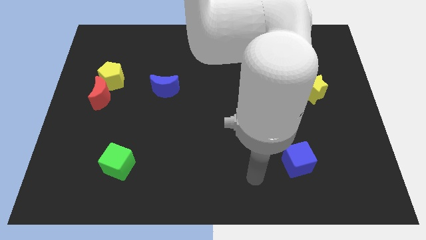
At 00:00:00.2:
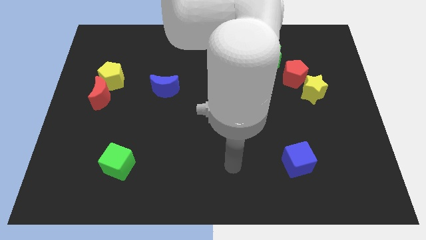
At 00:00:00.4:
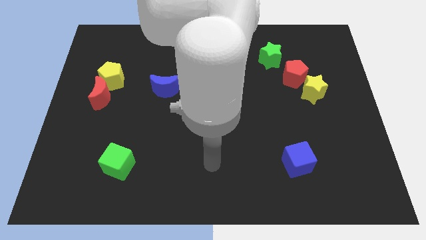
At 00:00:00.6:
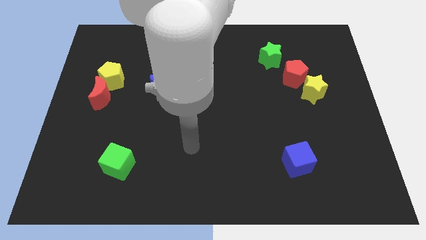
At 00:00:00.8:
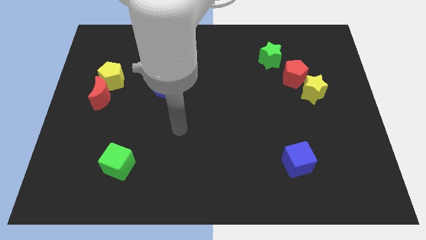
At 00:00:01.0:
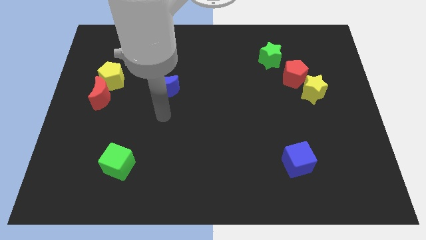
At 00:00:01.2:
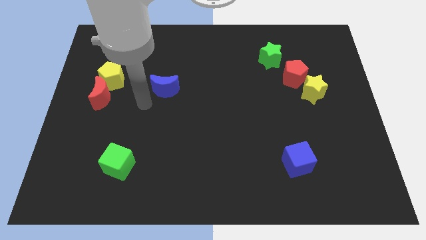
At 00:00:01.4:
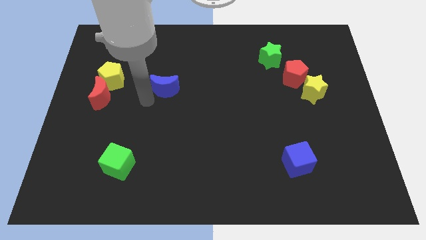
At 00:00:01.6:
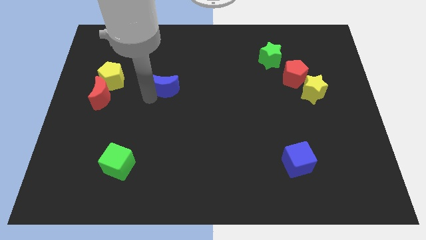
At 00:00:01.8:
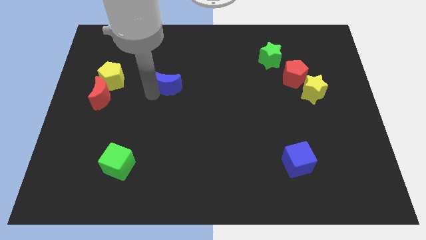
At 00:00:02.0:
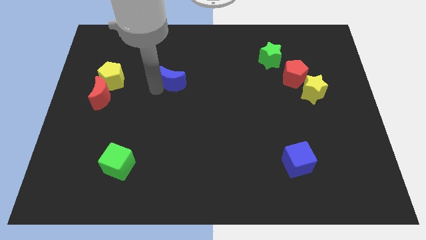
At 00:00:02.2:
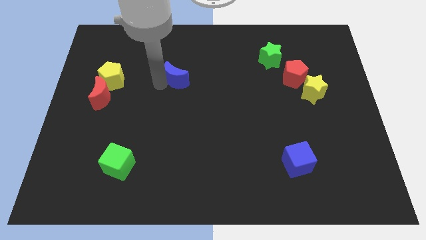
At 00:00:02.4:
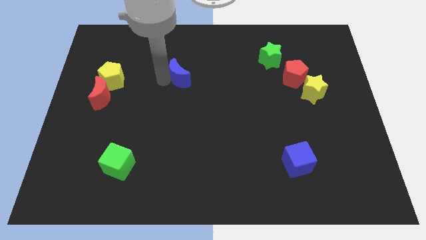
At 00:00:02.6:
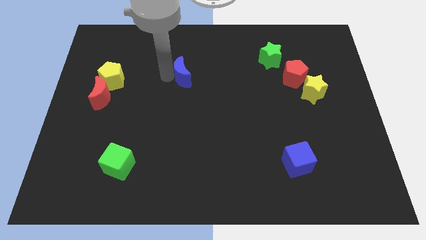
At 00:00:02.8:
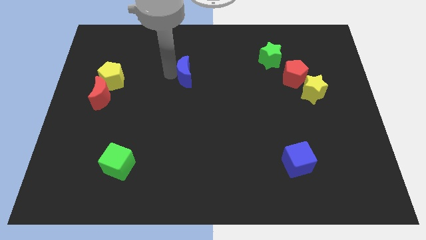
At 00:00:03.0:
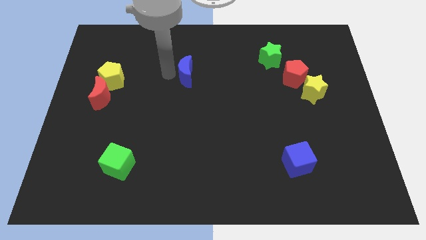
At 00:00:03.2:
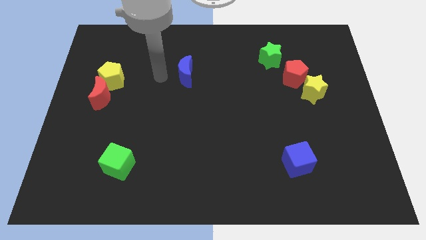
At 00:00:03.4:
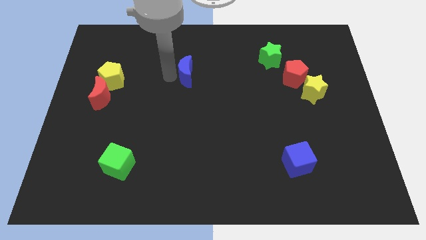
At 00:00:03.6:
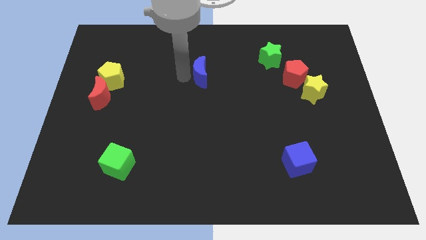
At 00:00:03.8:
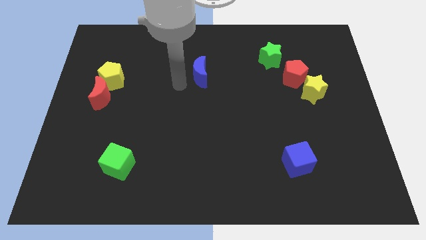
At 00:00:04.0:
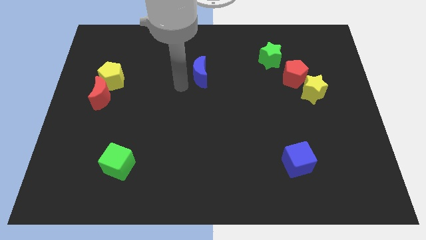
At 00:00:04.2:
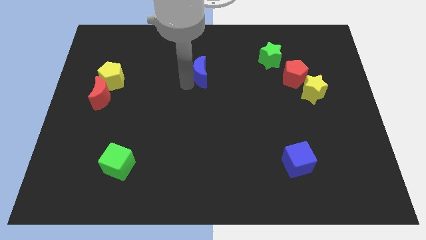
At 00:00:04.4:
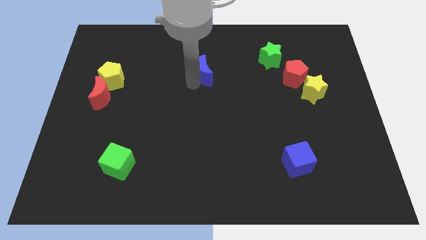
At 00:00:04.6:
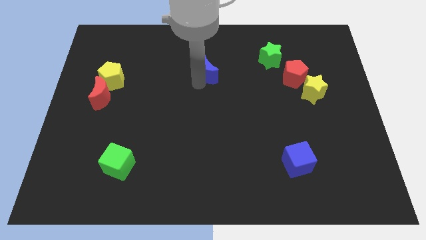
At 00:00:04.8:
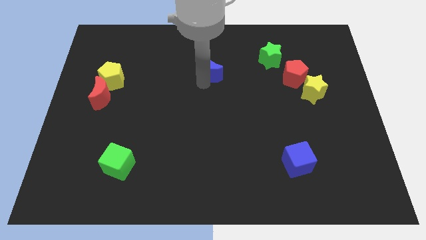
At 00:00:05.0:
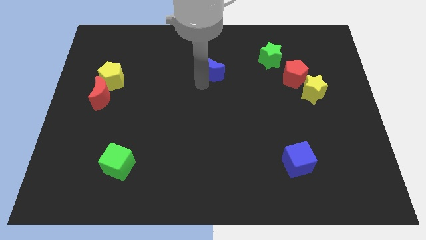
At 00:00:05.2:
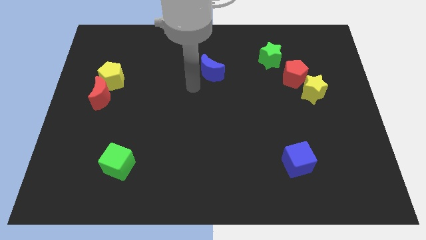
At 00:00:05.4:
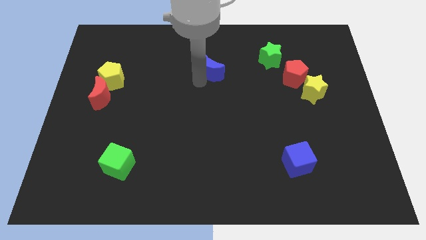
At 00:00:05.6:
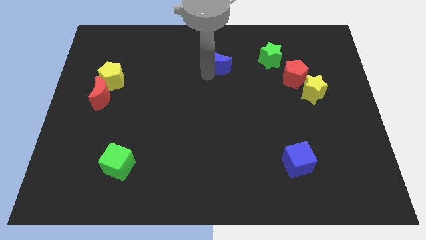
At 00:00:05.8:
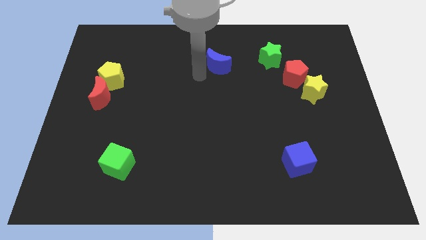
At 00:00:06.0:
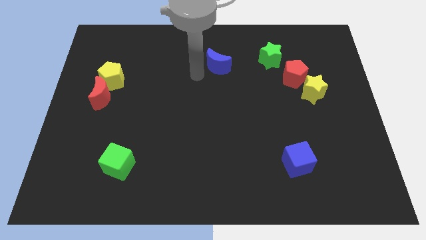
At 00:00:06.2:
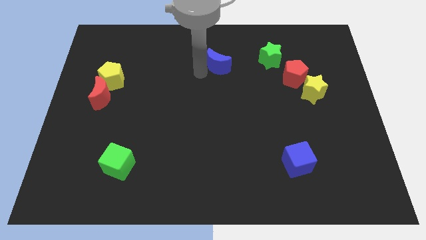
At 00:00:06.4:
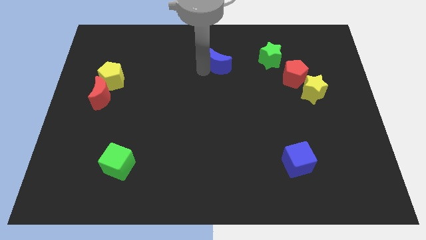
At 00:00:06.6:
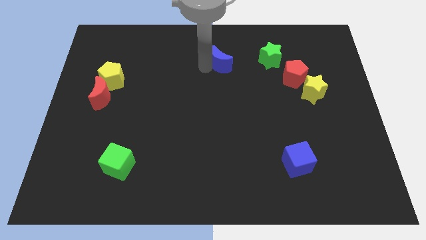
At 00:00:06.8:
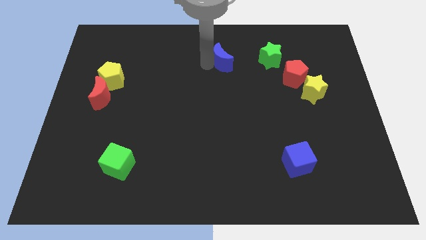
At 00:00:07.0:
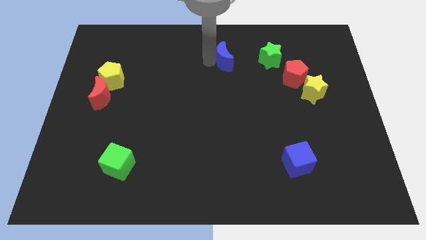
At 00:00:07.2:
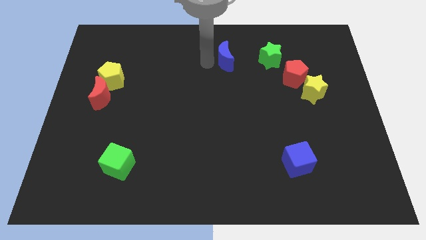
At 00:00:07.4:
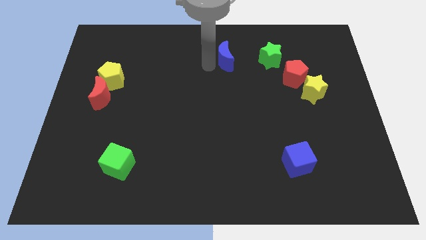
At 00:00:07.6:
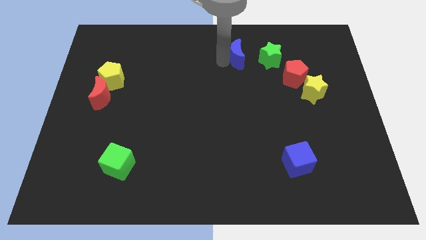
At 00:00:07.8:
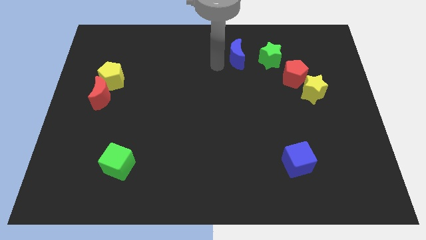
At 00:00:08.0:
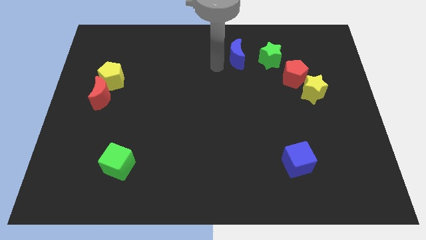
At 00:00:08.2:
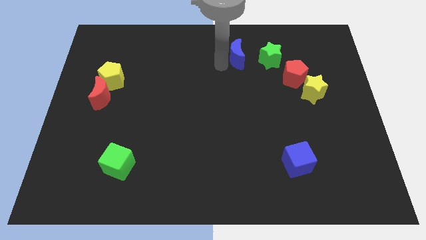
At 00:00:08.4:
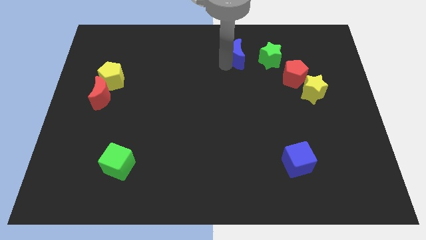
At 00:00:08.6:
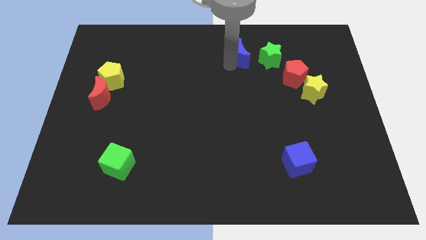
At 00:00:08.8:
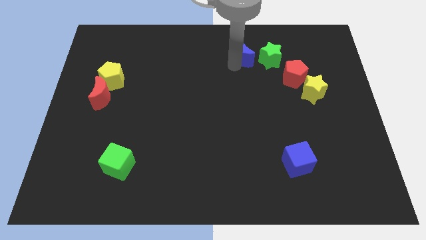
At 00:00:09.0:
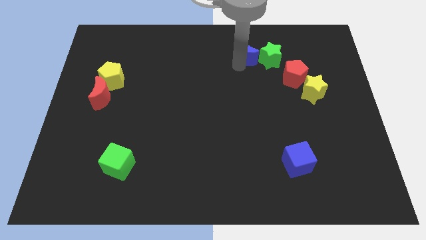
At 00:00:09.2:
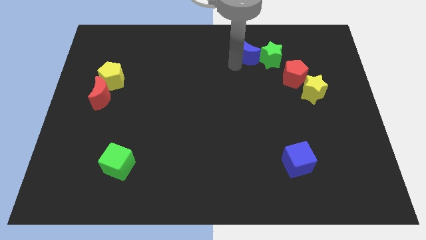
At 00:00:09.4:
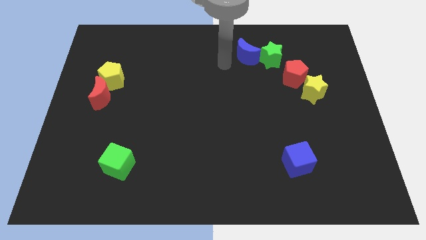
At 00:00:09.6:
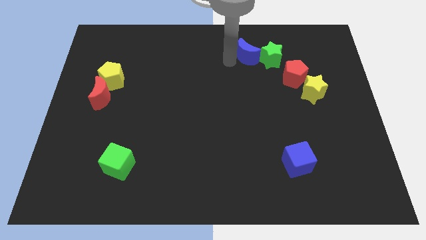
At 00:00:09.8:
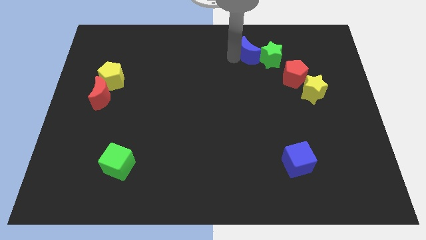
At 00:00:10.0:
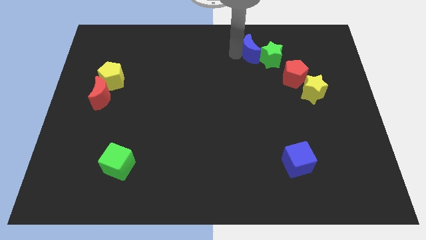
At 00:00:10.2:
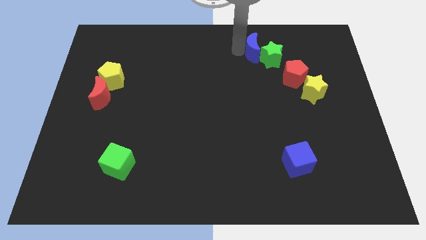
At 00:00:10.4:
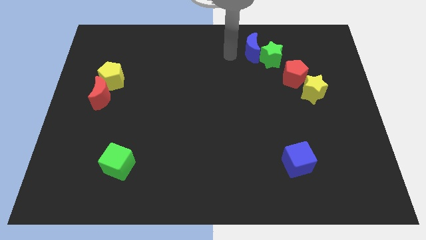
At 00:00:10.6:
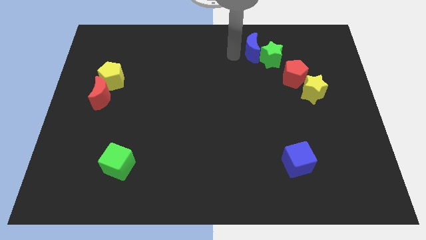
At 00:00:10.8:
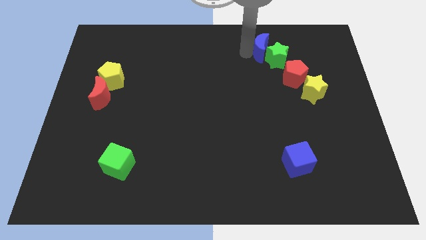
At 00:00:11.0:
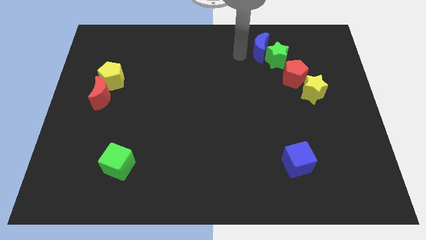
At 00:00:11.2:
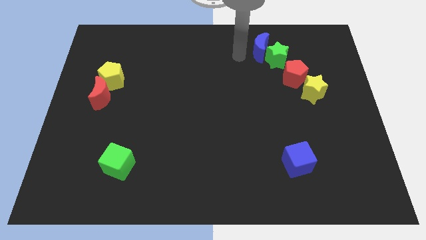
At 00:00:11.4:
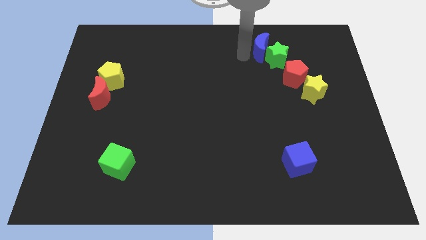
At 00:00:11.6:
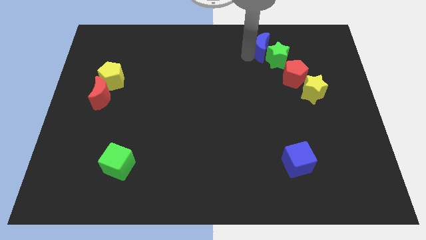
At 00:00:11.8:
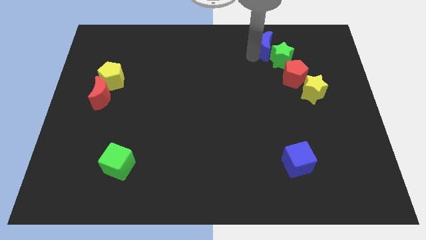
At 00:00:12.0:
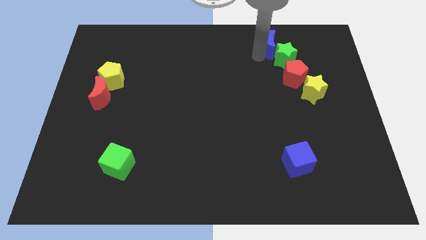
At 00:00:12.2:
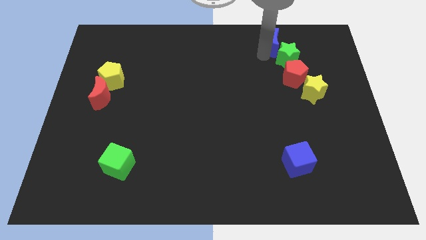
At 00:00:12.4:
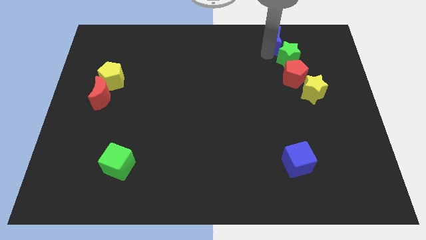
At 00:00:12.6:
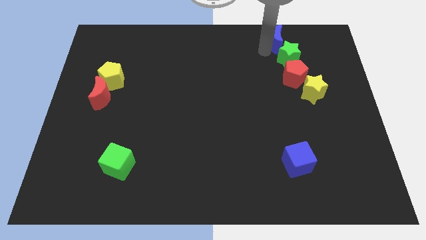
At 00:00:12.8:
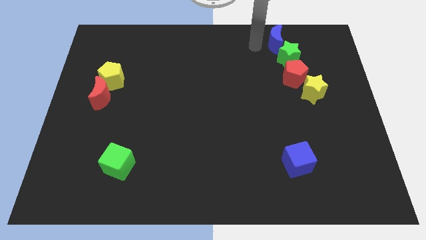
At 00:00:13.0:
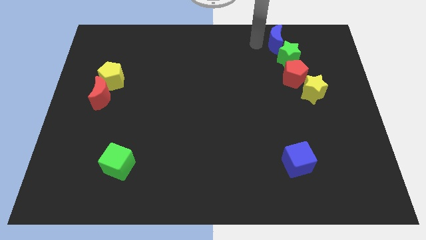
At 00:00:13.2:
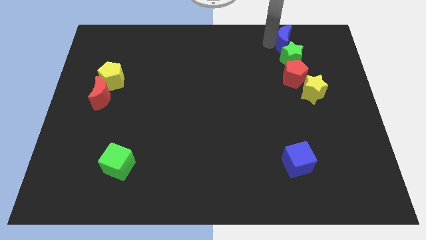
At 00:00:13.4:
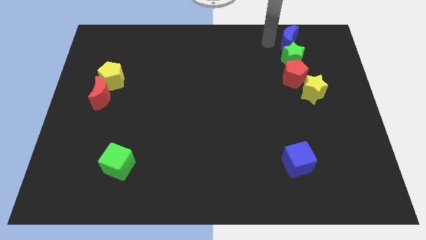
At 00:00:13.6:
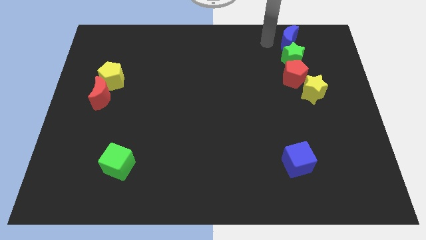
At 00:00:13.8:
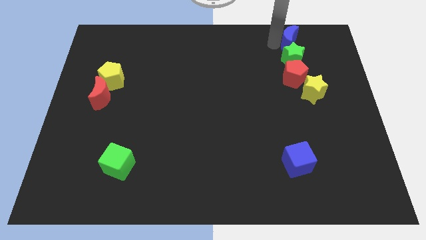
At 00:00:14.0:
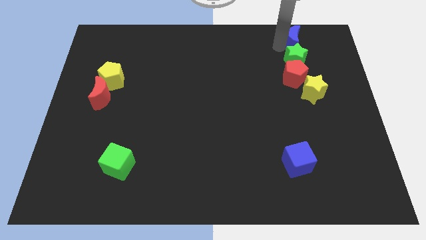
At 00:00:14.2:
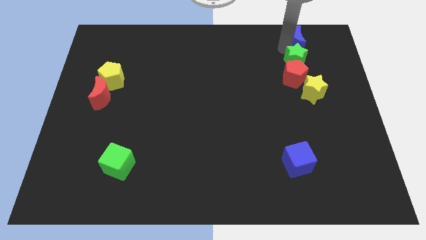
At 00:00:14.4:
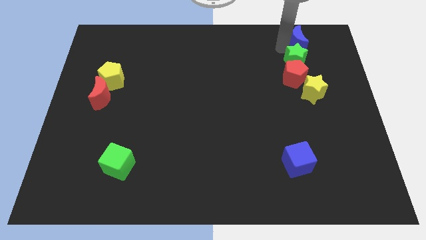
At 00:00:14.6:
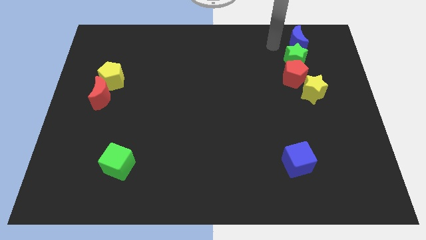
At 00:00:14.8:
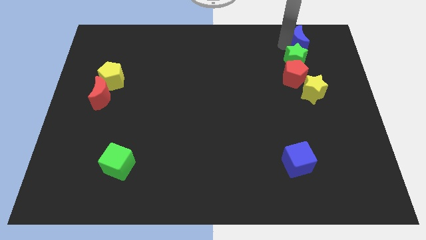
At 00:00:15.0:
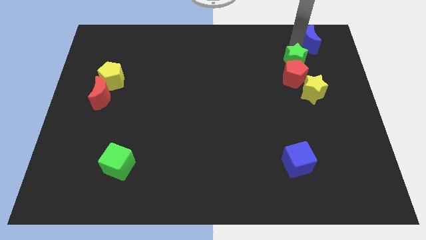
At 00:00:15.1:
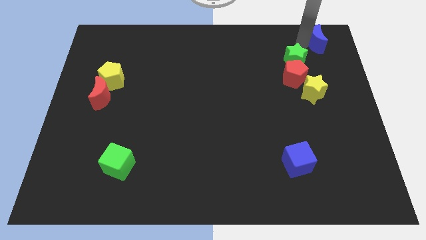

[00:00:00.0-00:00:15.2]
slide the blue moon to the top right of the board
